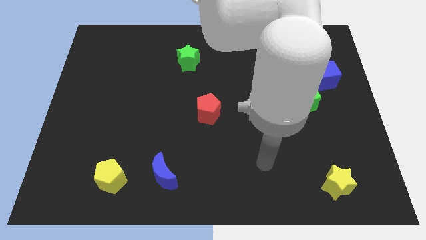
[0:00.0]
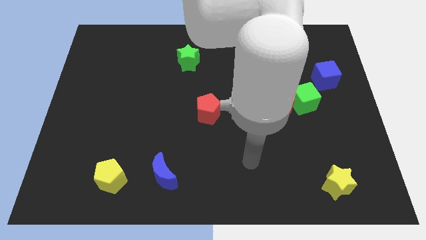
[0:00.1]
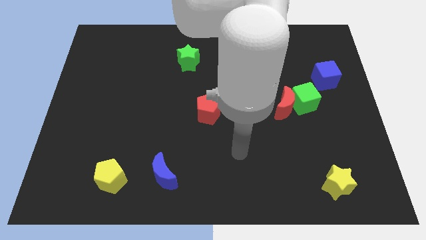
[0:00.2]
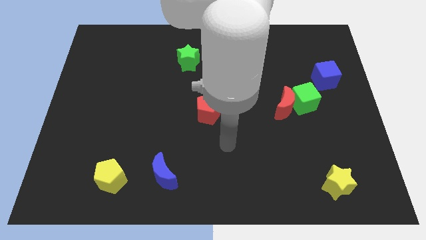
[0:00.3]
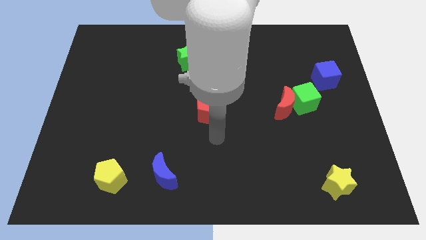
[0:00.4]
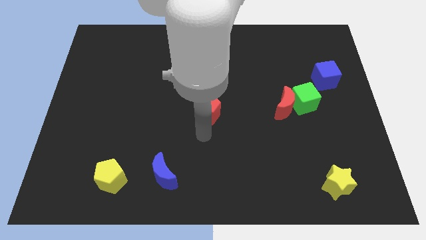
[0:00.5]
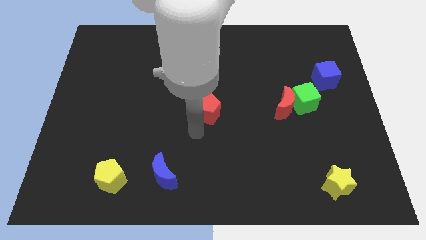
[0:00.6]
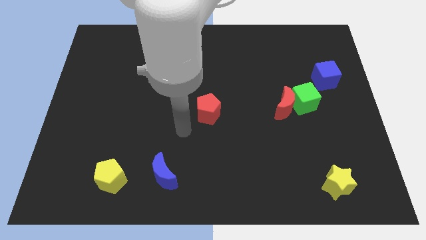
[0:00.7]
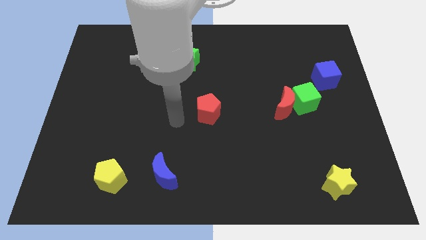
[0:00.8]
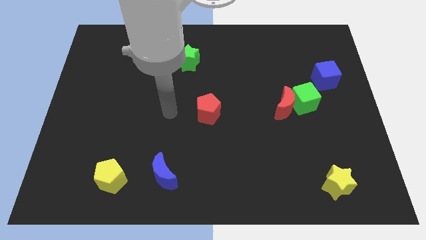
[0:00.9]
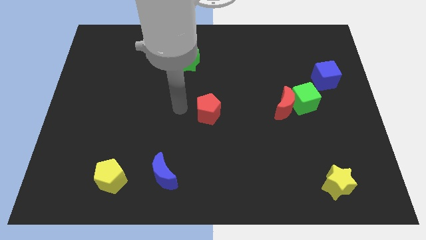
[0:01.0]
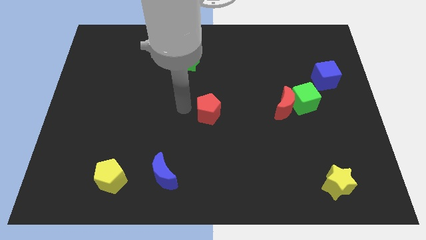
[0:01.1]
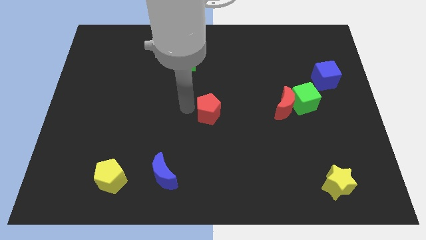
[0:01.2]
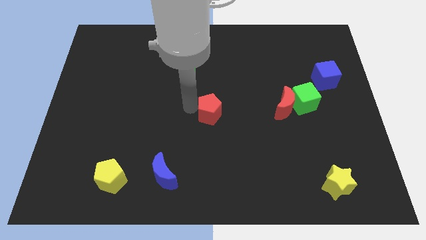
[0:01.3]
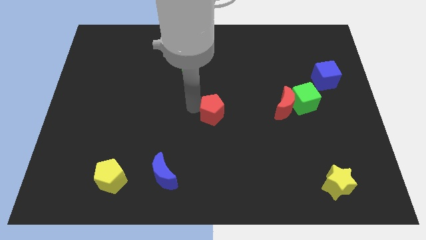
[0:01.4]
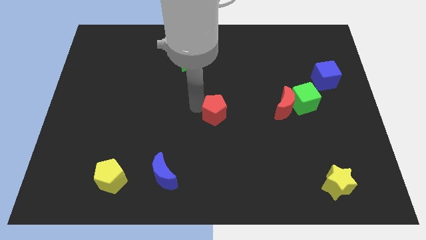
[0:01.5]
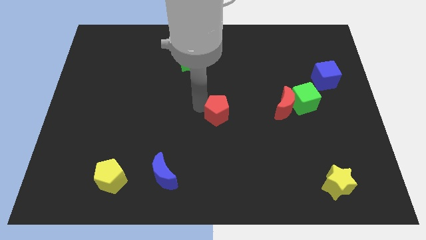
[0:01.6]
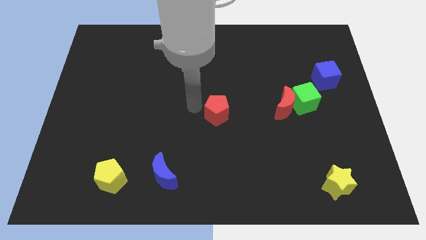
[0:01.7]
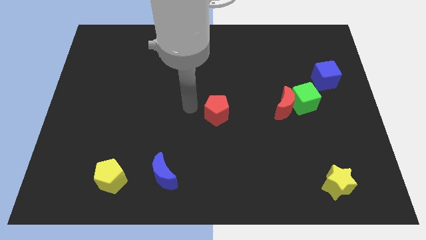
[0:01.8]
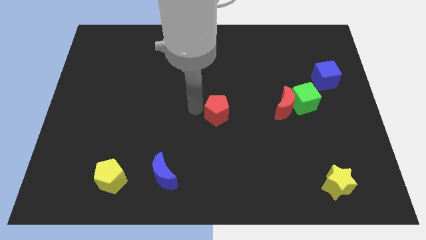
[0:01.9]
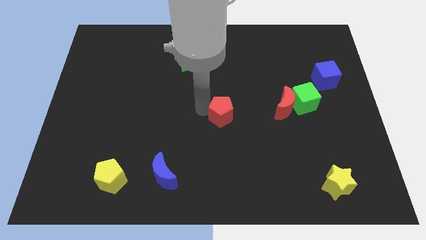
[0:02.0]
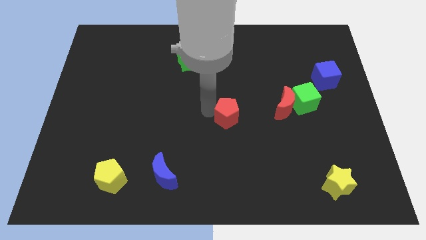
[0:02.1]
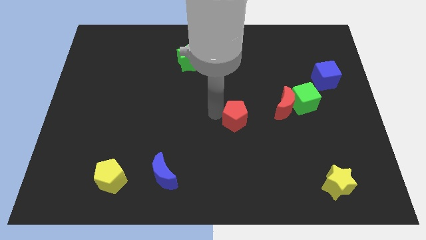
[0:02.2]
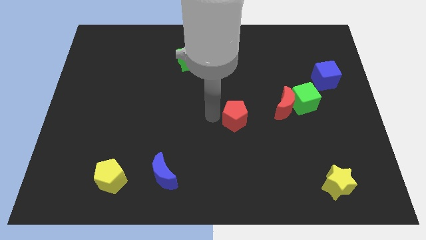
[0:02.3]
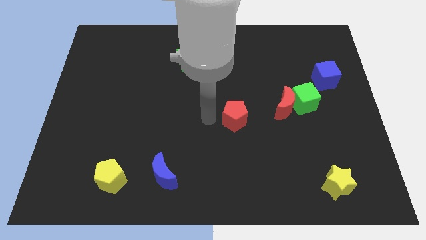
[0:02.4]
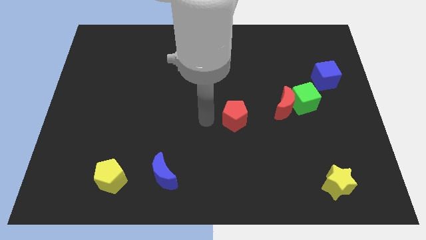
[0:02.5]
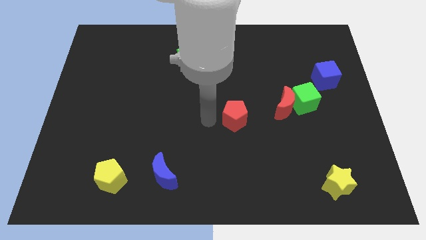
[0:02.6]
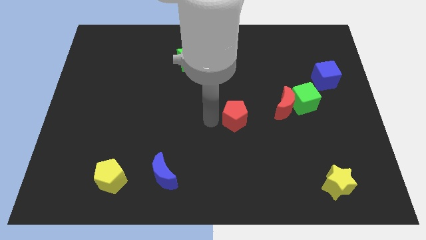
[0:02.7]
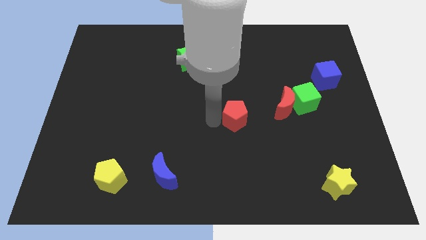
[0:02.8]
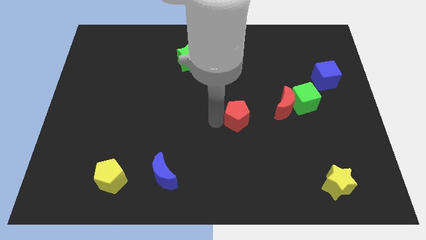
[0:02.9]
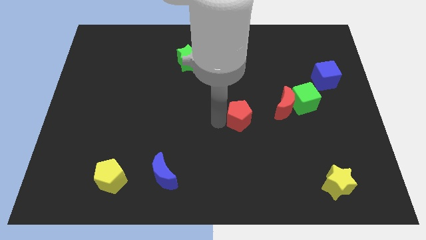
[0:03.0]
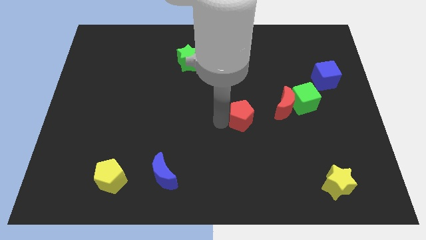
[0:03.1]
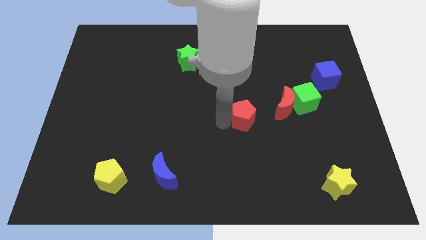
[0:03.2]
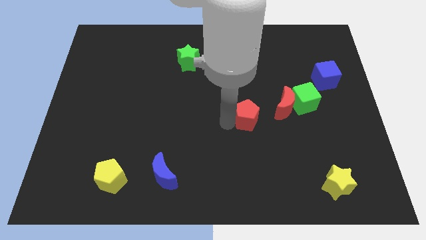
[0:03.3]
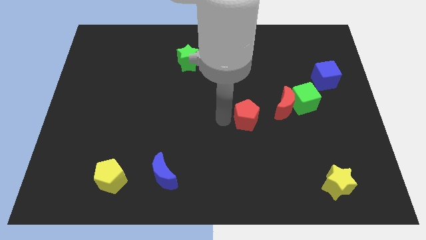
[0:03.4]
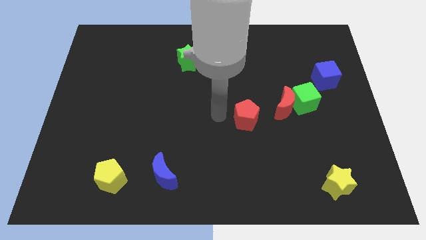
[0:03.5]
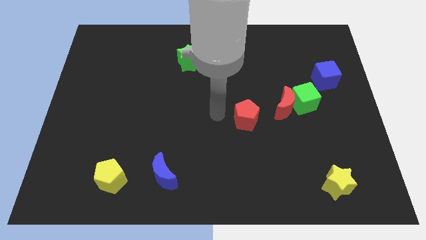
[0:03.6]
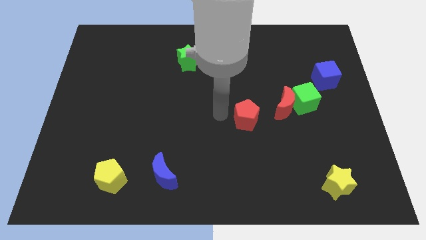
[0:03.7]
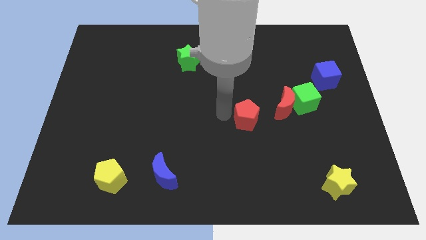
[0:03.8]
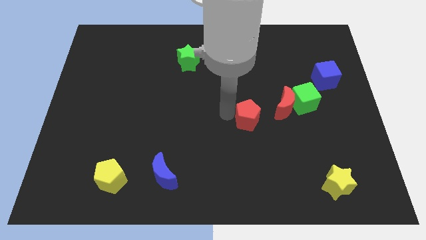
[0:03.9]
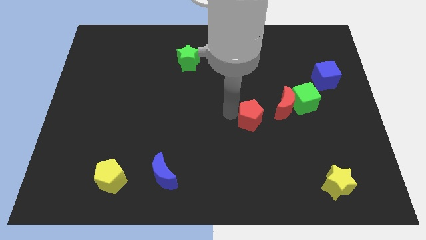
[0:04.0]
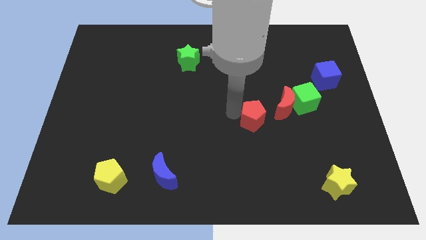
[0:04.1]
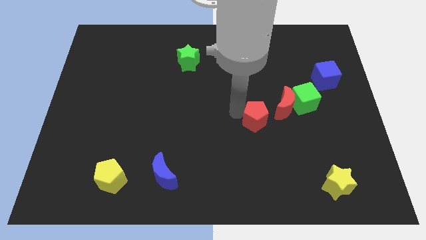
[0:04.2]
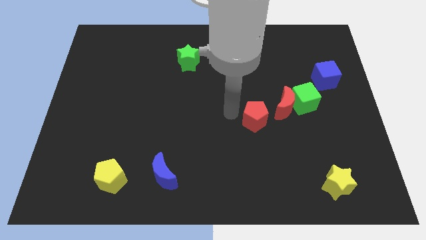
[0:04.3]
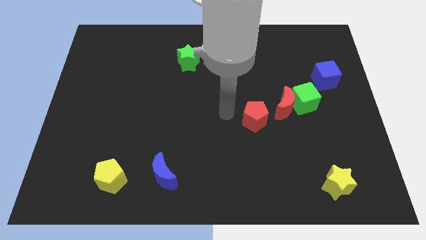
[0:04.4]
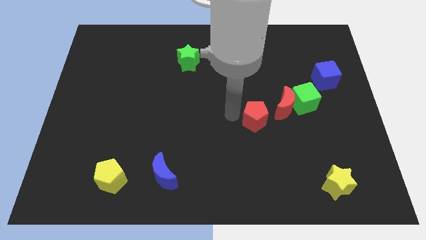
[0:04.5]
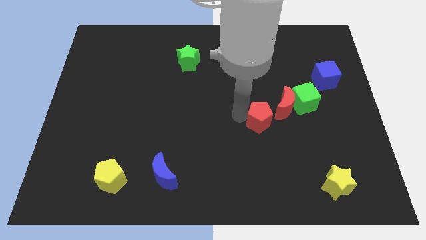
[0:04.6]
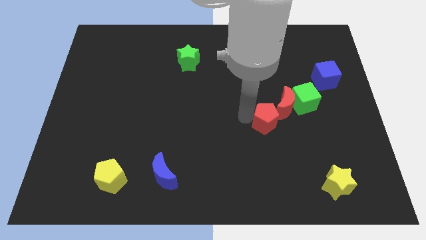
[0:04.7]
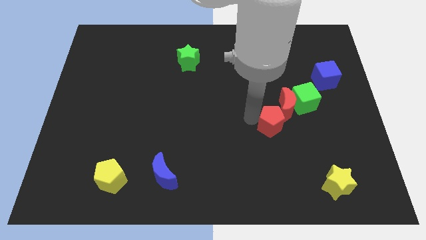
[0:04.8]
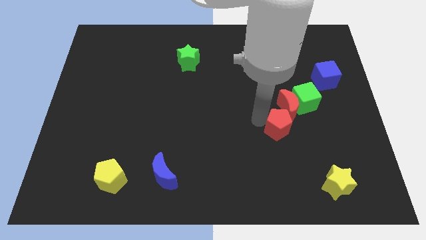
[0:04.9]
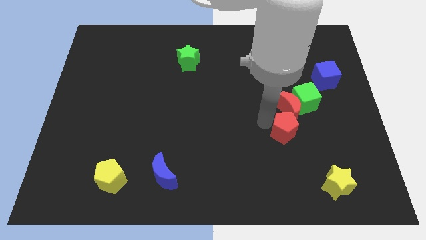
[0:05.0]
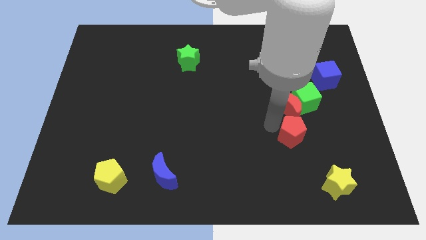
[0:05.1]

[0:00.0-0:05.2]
move the red pentagon to the bottom of the green cube

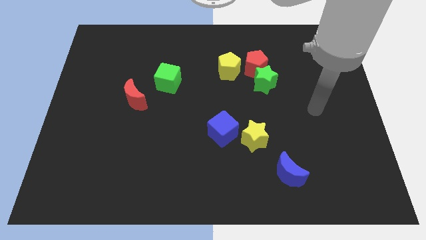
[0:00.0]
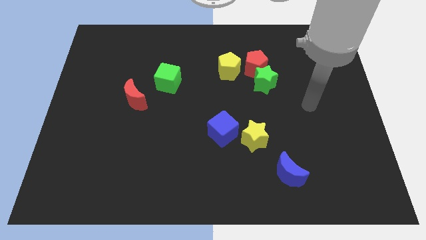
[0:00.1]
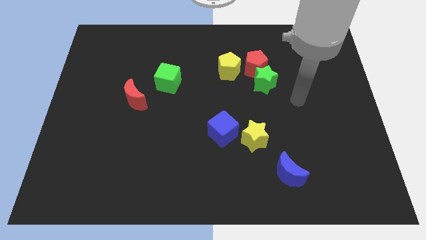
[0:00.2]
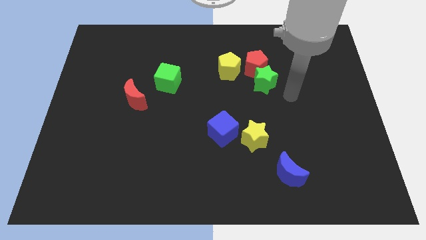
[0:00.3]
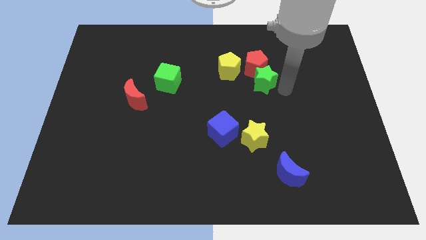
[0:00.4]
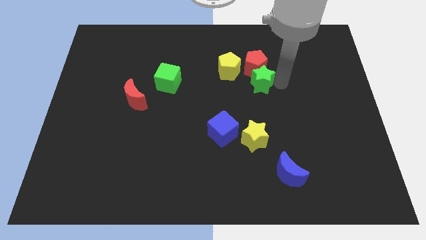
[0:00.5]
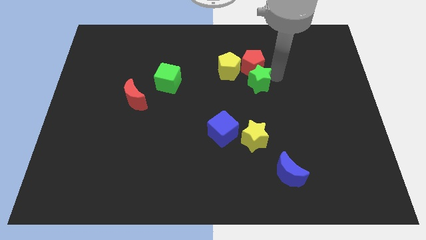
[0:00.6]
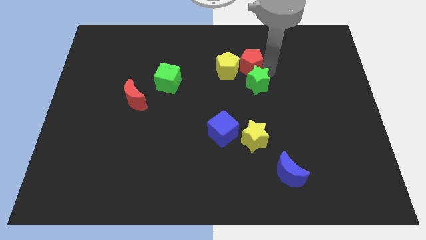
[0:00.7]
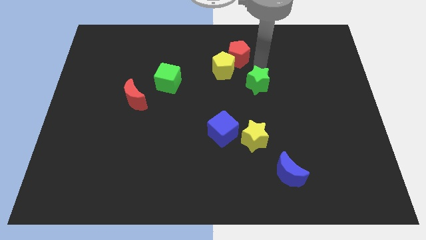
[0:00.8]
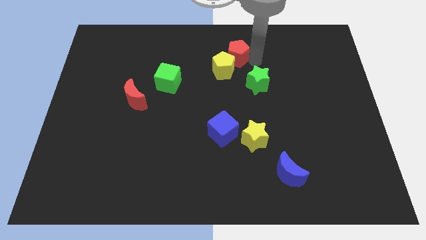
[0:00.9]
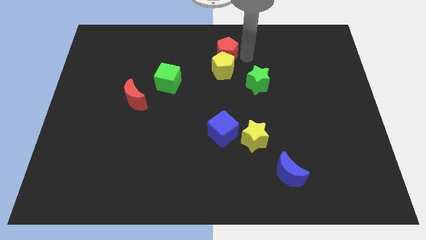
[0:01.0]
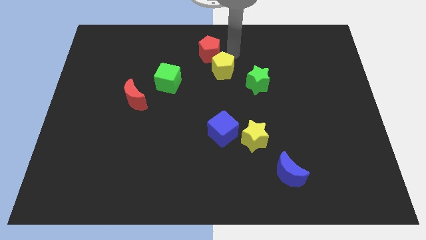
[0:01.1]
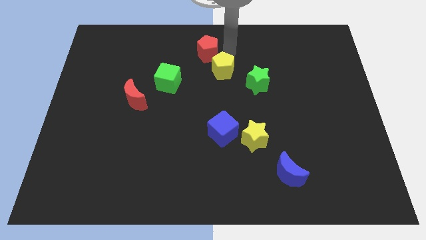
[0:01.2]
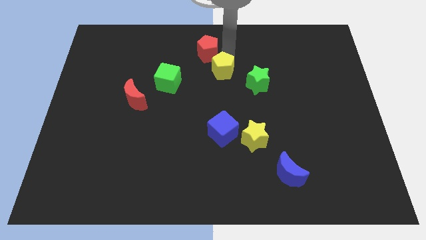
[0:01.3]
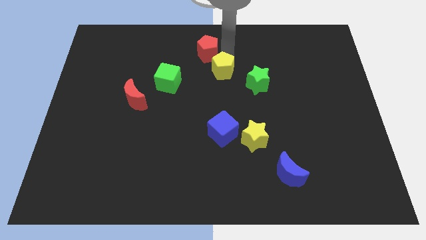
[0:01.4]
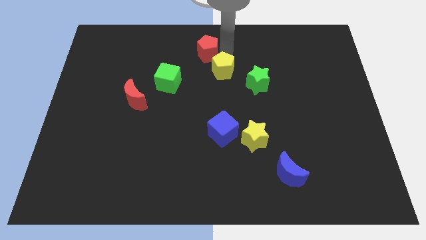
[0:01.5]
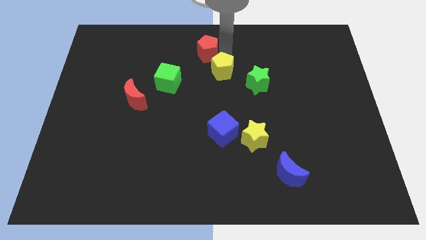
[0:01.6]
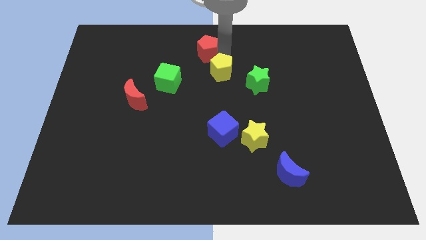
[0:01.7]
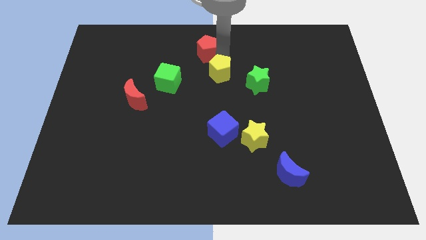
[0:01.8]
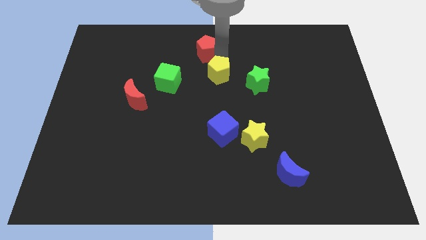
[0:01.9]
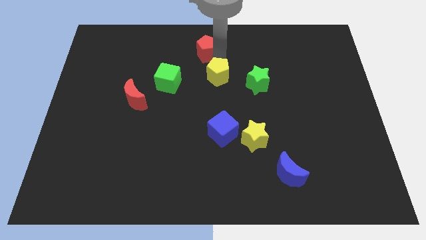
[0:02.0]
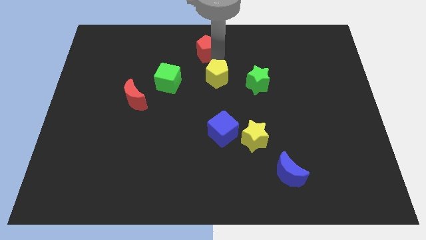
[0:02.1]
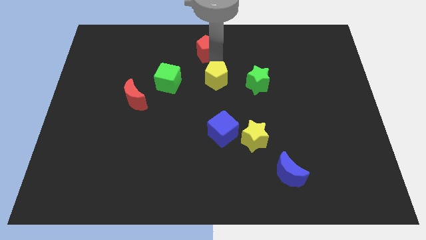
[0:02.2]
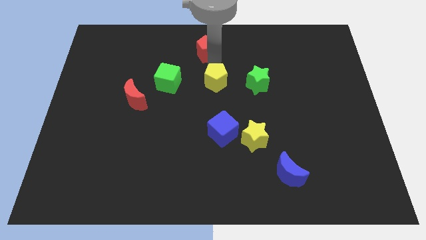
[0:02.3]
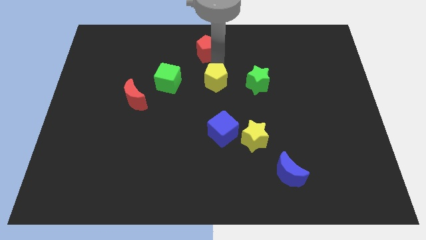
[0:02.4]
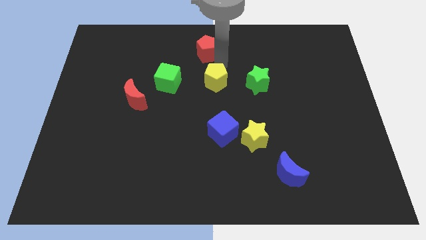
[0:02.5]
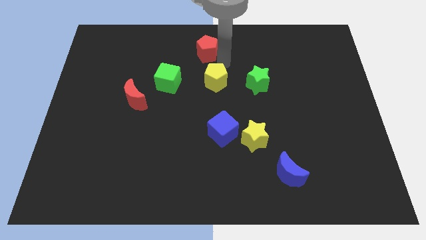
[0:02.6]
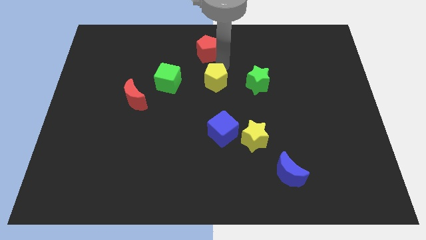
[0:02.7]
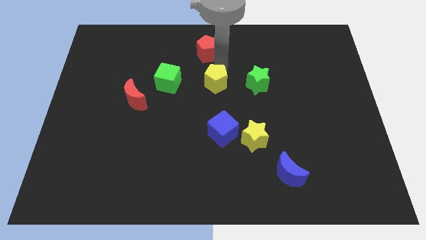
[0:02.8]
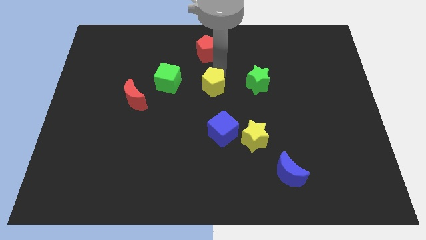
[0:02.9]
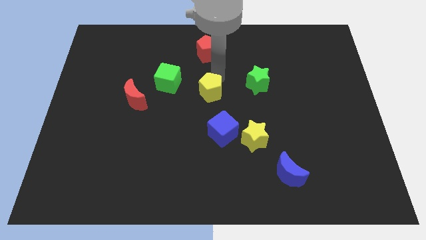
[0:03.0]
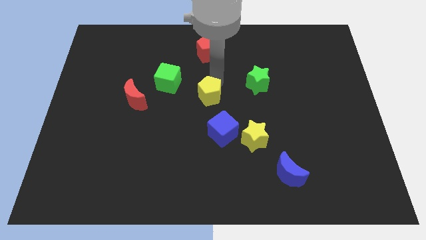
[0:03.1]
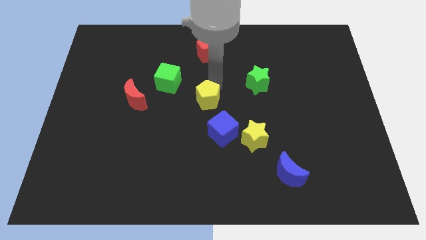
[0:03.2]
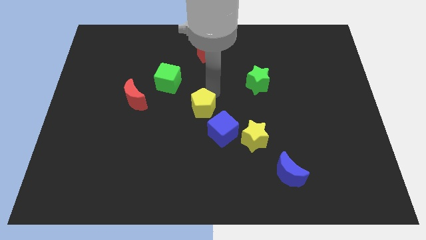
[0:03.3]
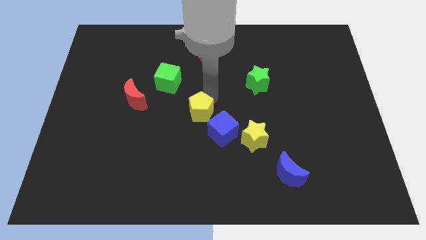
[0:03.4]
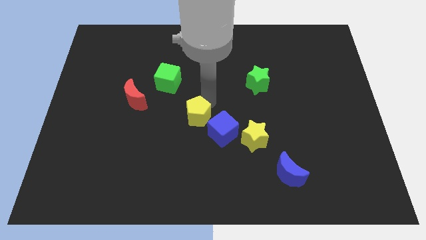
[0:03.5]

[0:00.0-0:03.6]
slide the yellow pentagon to the left of the blue cube
